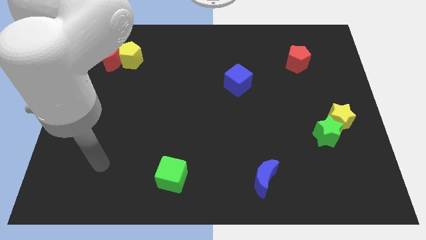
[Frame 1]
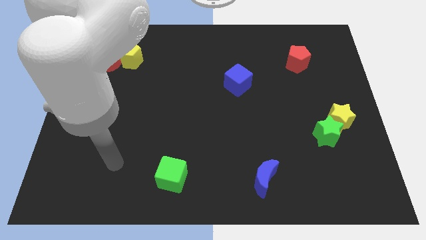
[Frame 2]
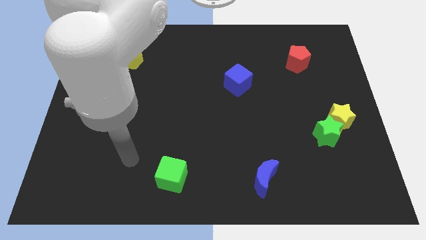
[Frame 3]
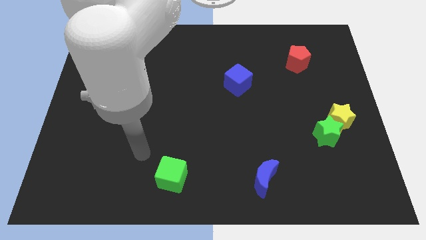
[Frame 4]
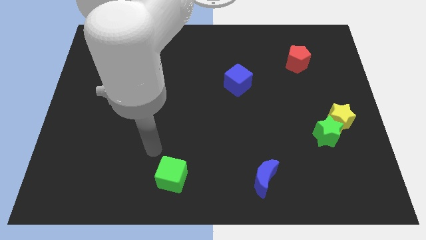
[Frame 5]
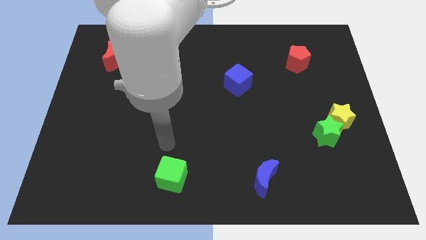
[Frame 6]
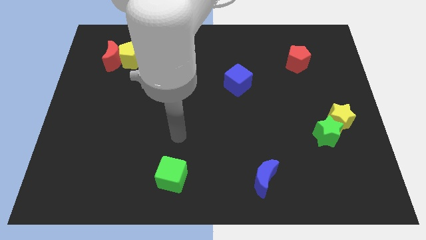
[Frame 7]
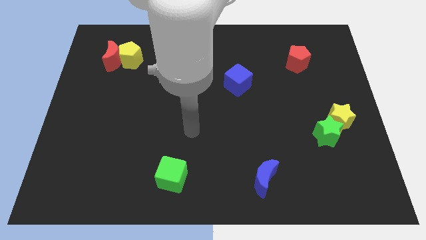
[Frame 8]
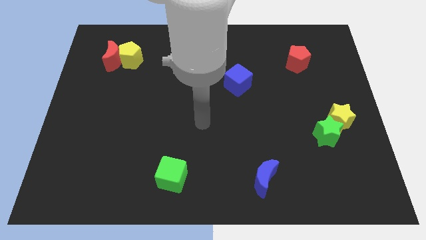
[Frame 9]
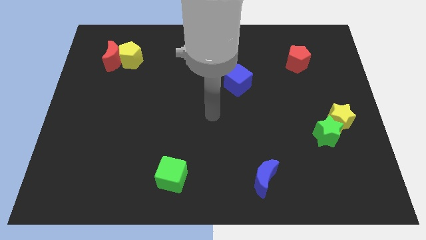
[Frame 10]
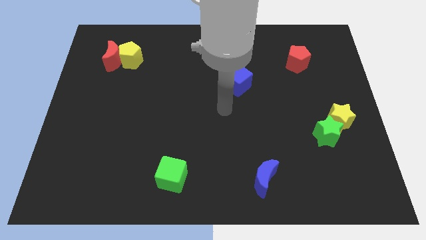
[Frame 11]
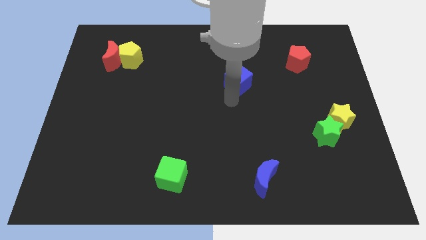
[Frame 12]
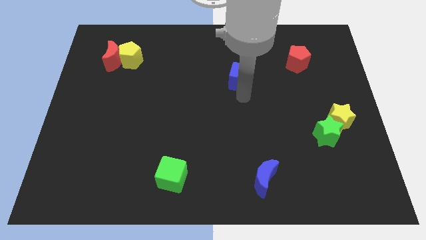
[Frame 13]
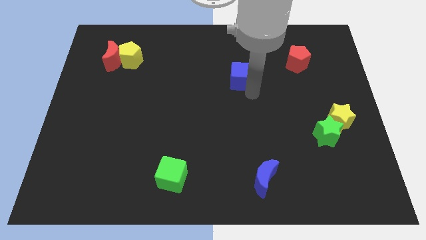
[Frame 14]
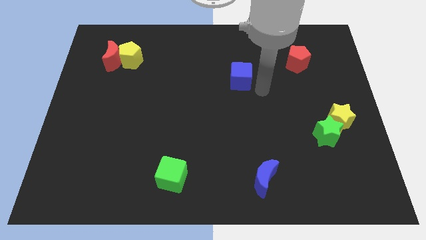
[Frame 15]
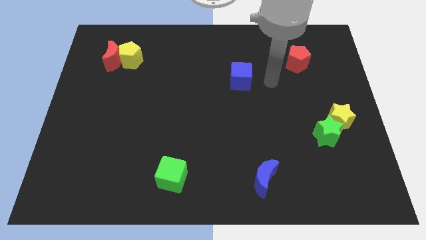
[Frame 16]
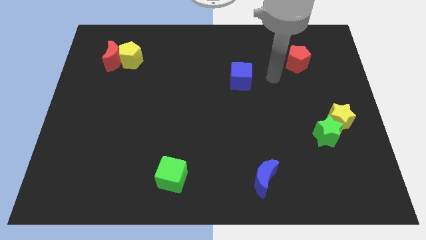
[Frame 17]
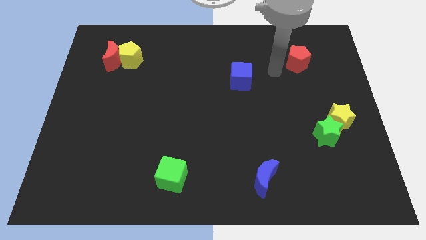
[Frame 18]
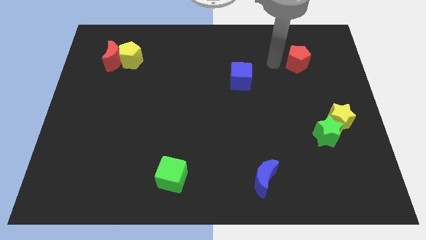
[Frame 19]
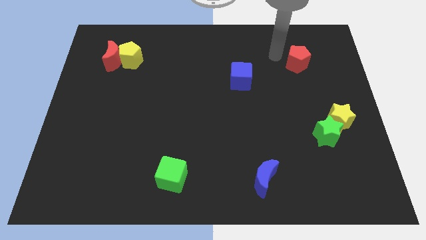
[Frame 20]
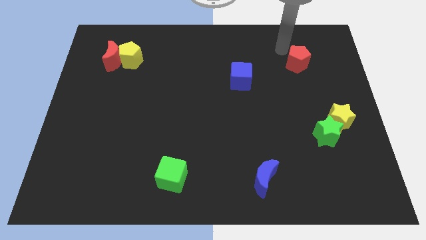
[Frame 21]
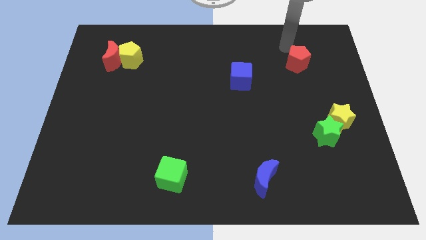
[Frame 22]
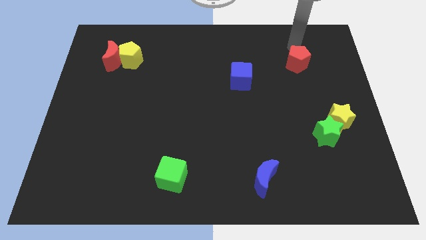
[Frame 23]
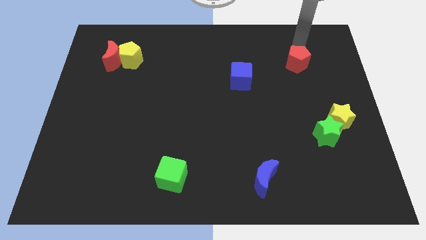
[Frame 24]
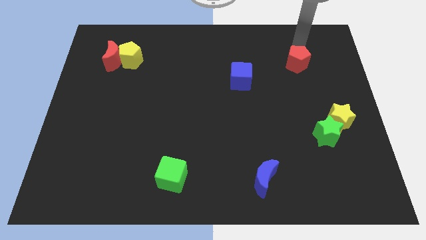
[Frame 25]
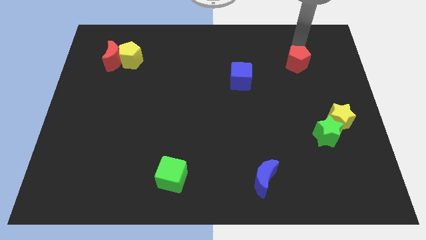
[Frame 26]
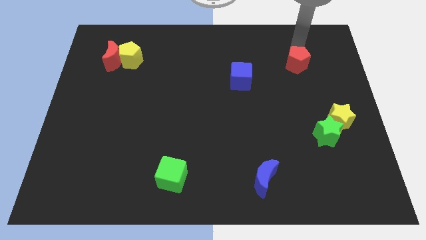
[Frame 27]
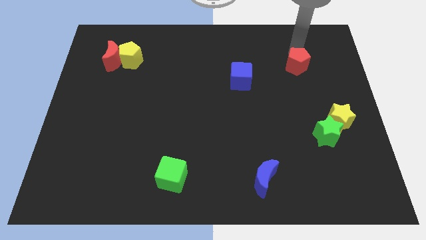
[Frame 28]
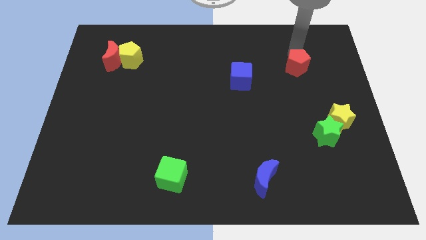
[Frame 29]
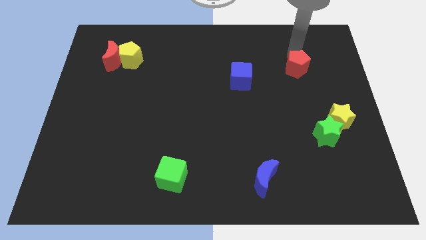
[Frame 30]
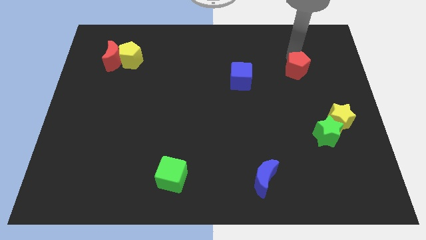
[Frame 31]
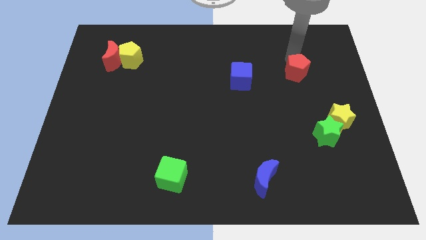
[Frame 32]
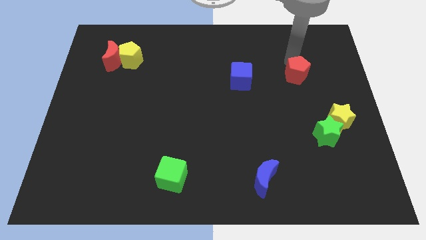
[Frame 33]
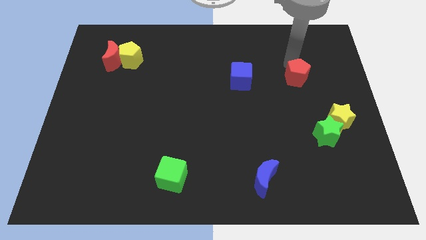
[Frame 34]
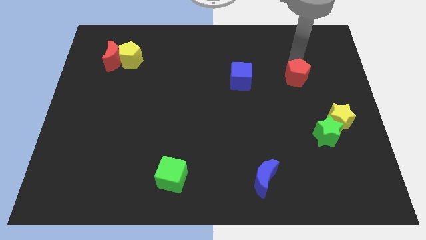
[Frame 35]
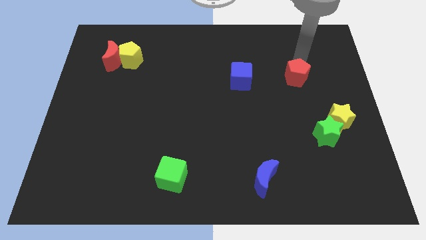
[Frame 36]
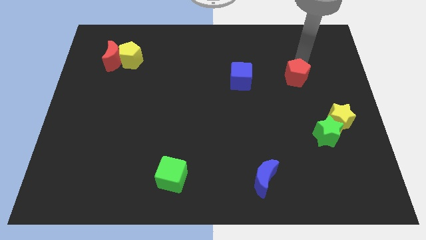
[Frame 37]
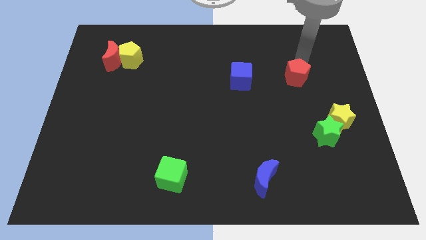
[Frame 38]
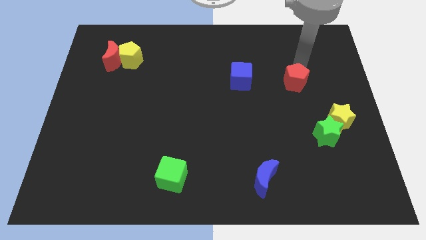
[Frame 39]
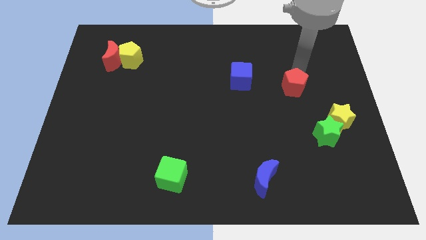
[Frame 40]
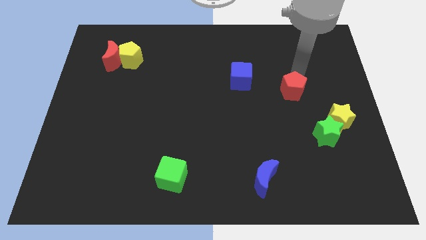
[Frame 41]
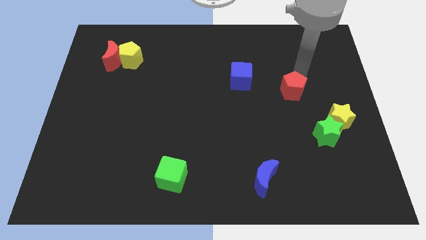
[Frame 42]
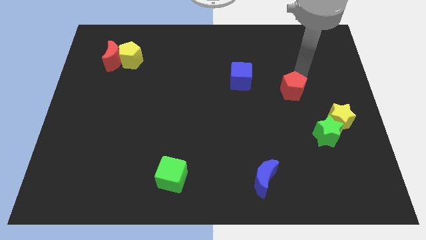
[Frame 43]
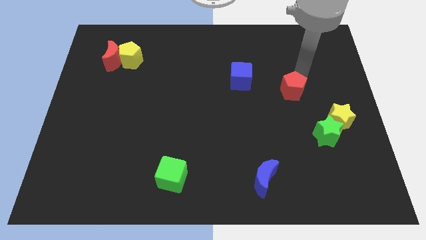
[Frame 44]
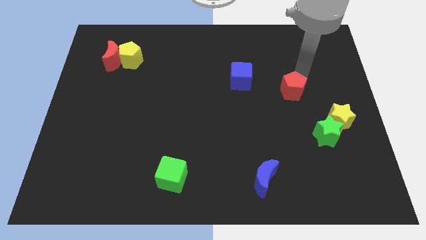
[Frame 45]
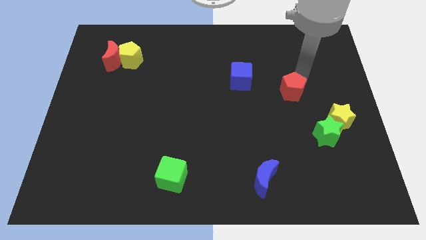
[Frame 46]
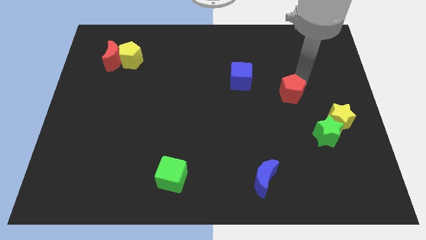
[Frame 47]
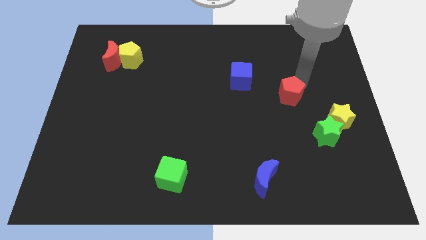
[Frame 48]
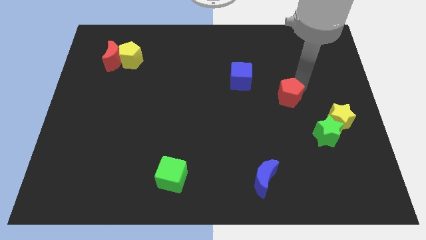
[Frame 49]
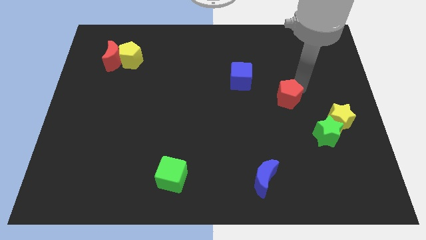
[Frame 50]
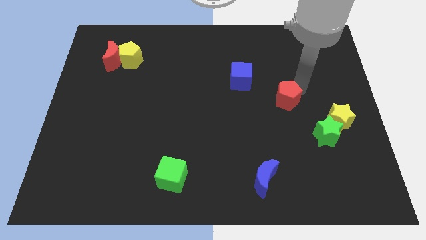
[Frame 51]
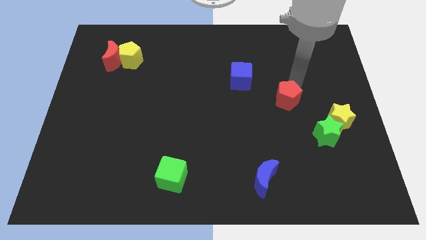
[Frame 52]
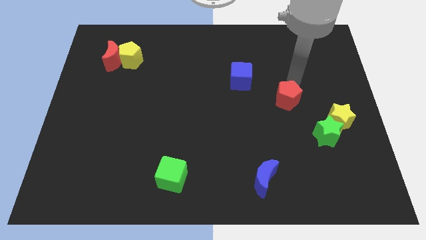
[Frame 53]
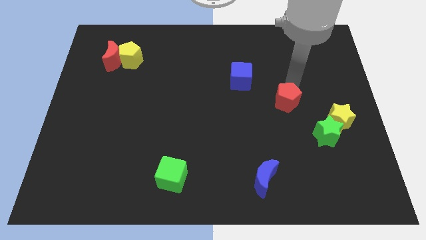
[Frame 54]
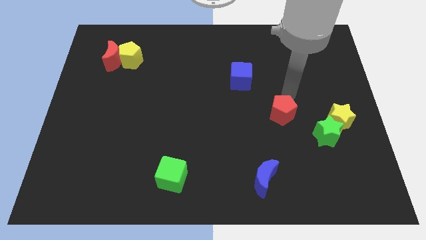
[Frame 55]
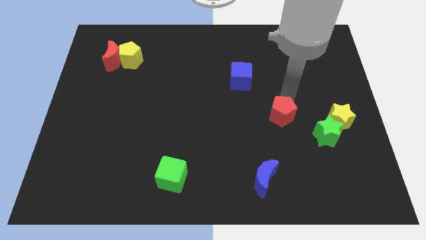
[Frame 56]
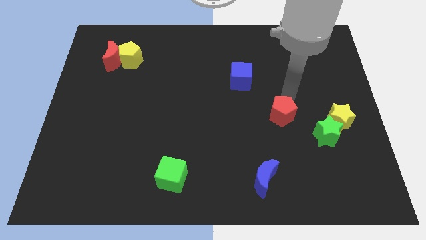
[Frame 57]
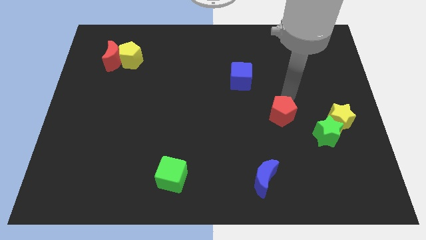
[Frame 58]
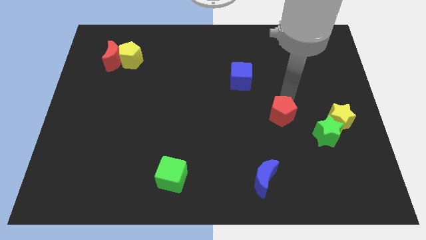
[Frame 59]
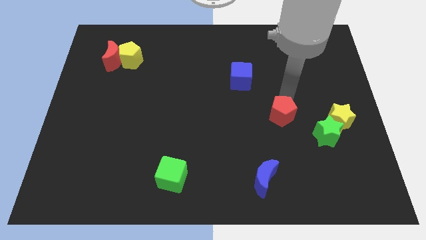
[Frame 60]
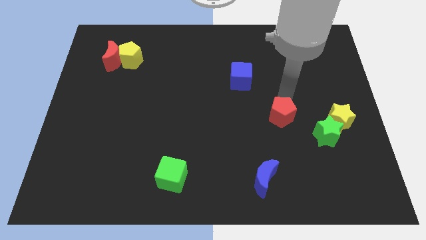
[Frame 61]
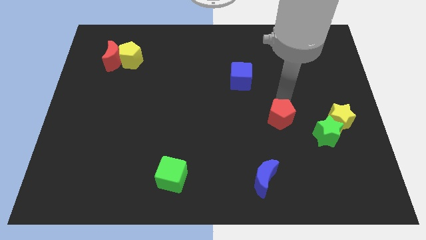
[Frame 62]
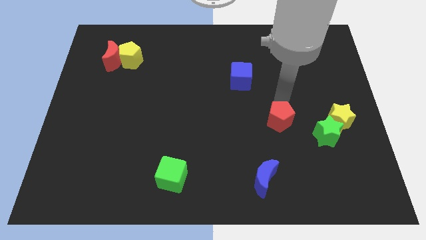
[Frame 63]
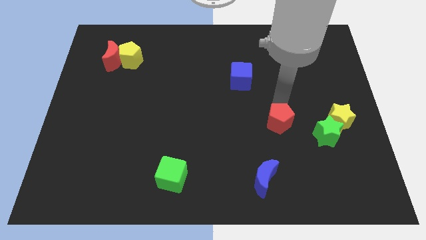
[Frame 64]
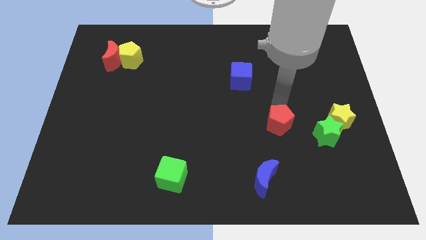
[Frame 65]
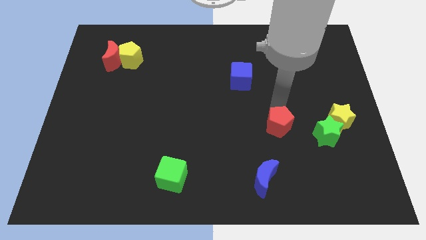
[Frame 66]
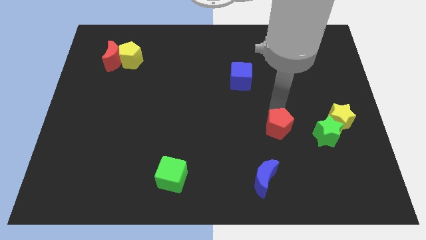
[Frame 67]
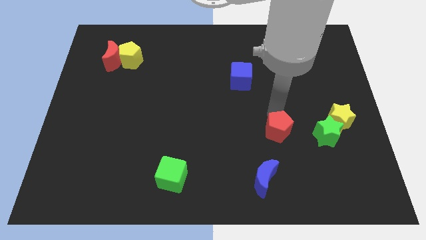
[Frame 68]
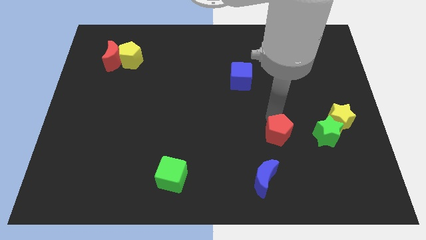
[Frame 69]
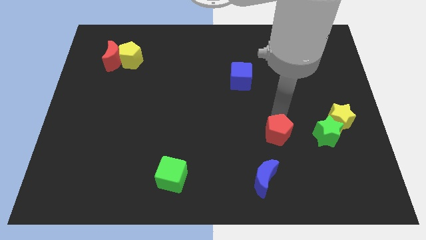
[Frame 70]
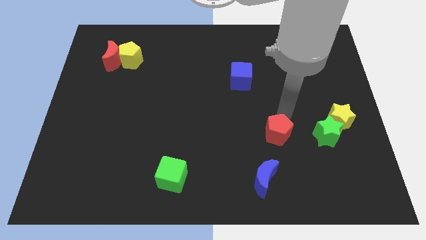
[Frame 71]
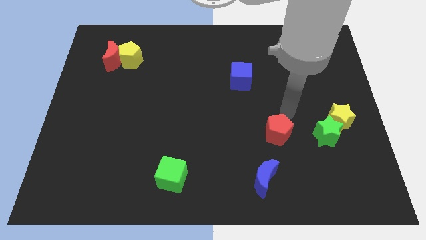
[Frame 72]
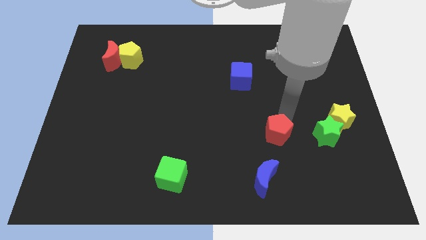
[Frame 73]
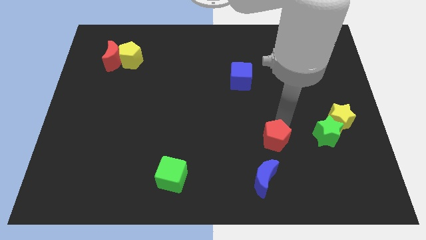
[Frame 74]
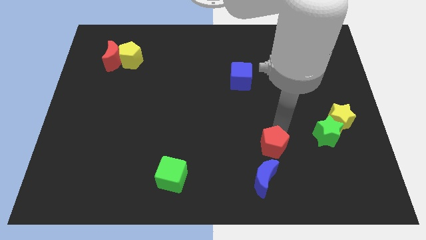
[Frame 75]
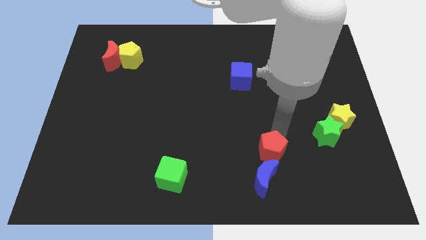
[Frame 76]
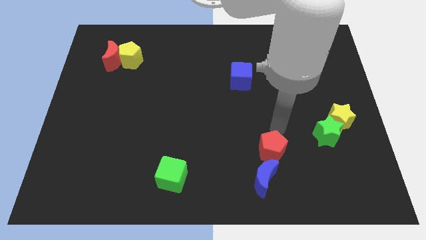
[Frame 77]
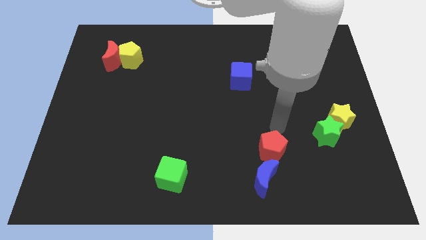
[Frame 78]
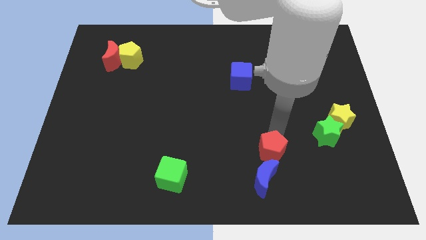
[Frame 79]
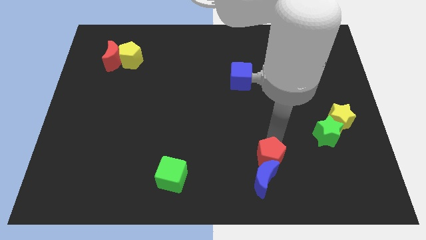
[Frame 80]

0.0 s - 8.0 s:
slide the red pentagon to the blue moon
